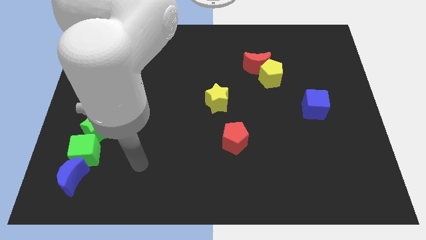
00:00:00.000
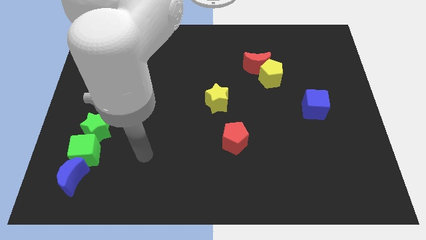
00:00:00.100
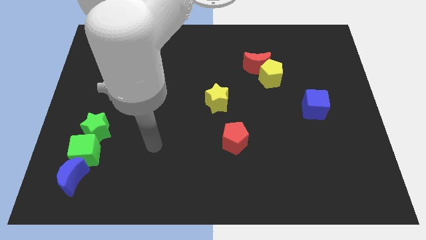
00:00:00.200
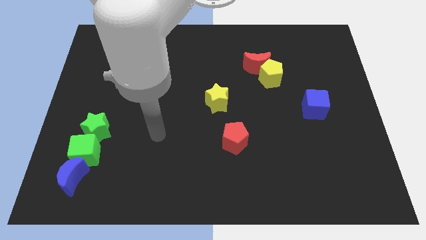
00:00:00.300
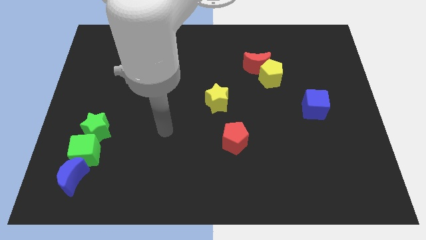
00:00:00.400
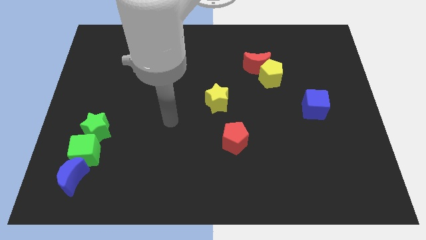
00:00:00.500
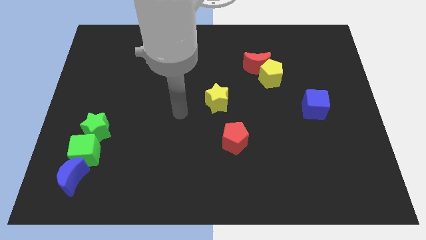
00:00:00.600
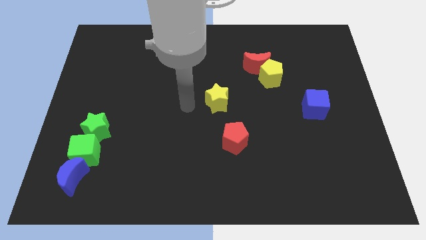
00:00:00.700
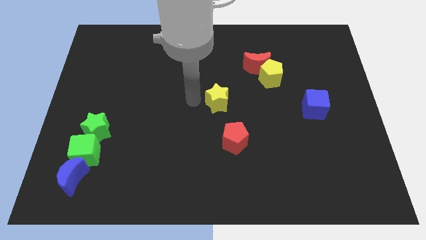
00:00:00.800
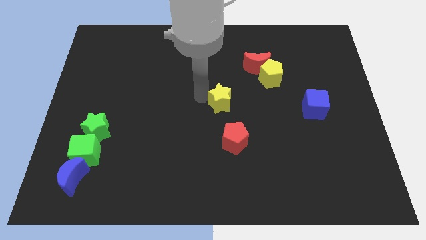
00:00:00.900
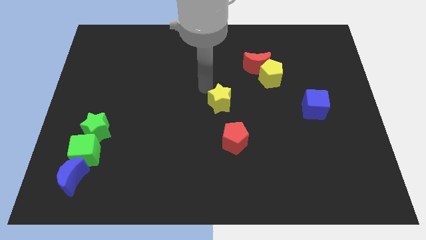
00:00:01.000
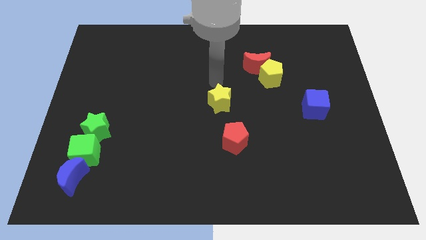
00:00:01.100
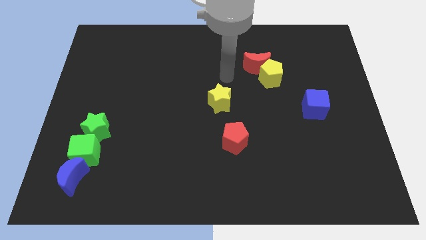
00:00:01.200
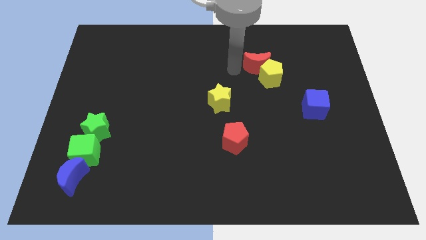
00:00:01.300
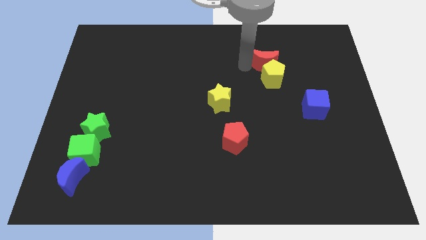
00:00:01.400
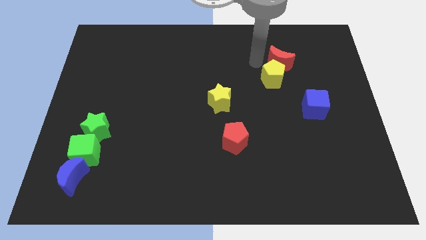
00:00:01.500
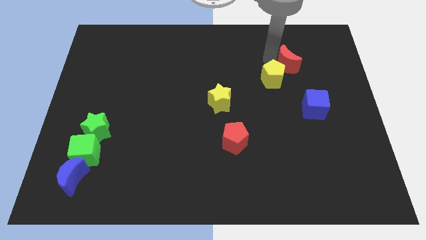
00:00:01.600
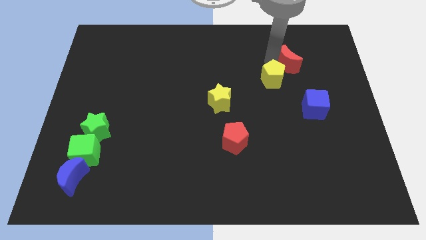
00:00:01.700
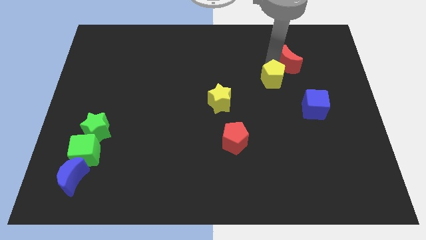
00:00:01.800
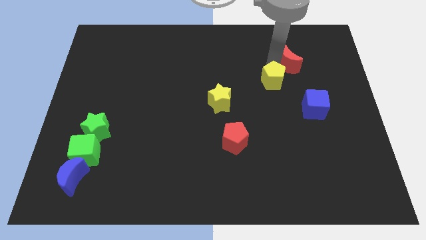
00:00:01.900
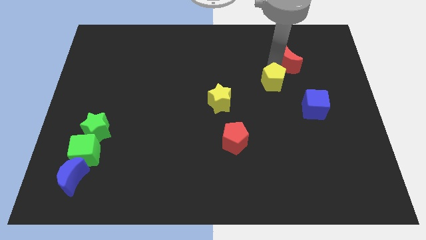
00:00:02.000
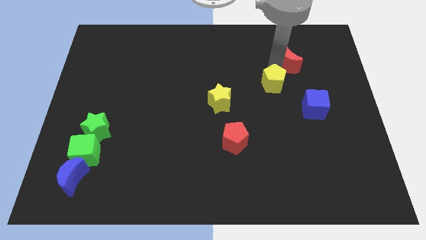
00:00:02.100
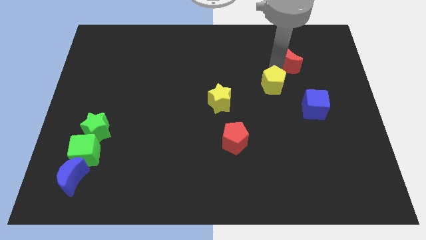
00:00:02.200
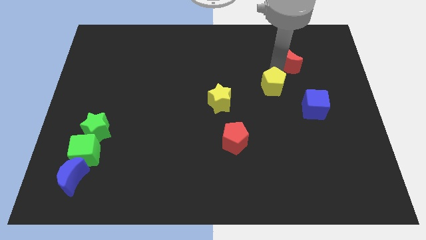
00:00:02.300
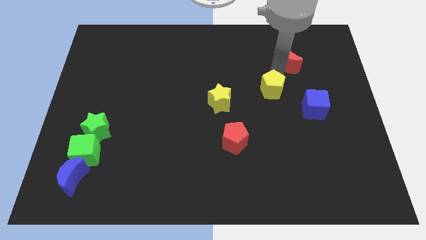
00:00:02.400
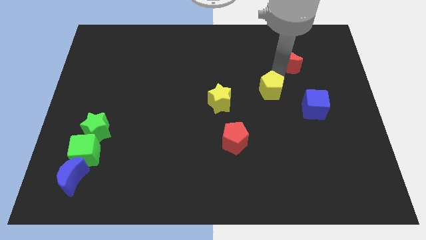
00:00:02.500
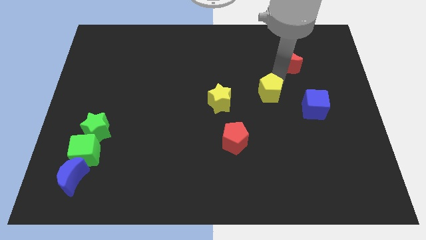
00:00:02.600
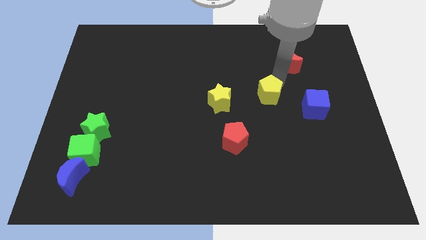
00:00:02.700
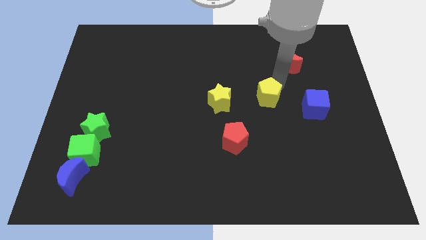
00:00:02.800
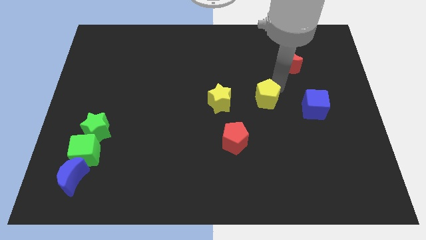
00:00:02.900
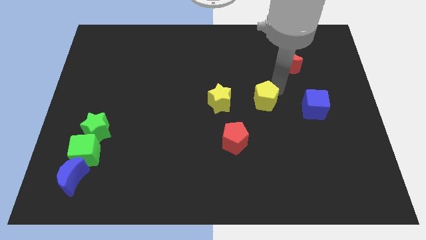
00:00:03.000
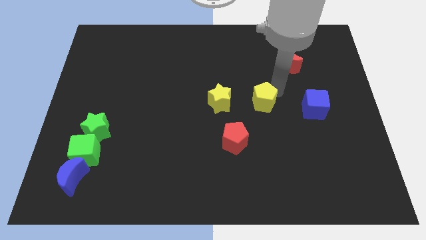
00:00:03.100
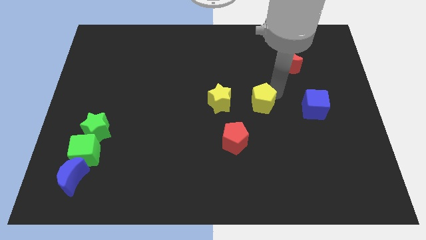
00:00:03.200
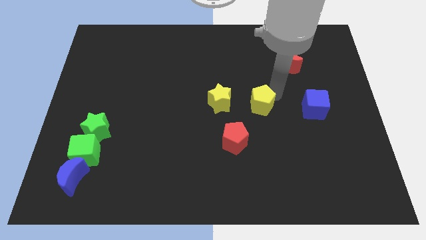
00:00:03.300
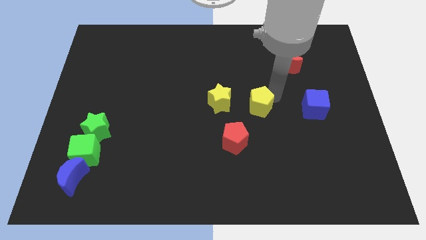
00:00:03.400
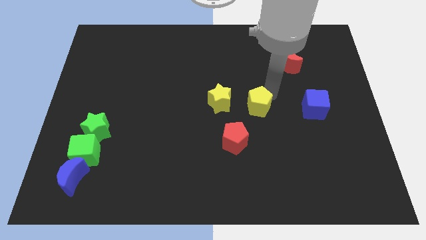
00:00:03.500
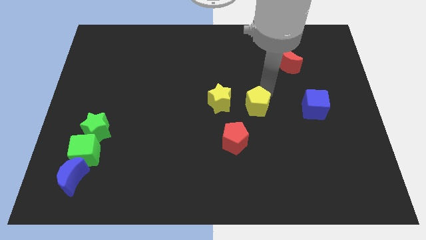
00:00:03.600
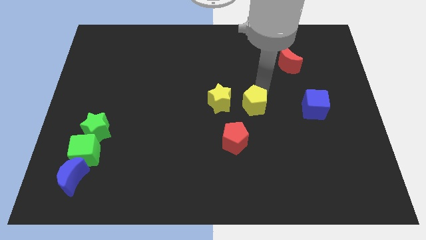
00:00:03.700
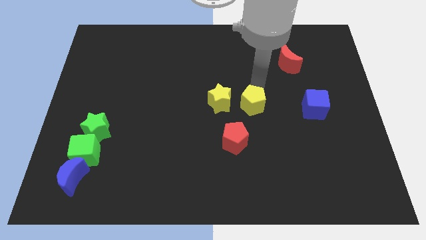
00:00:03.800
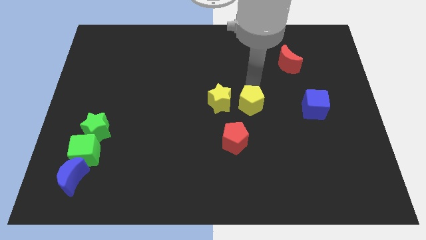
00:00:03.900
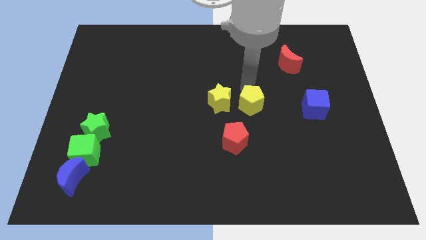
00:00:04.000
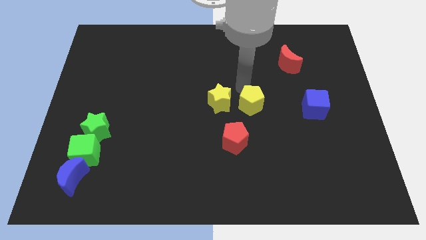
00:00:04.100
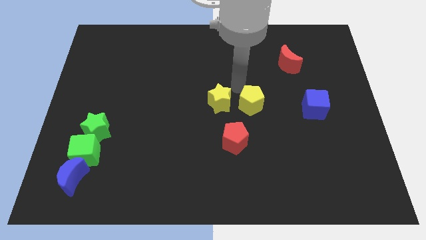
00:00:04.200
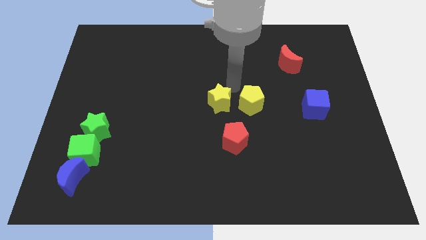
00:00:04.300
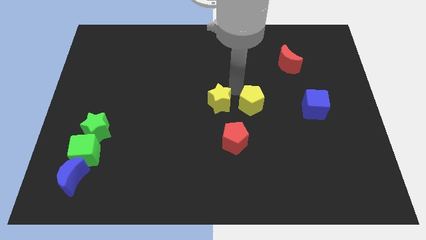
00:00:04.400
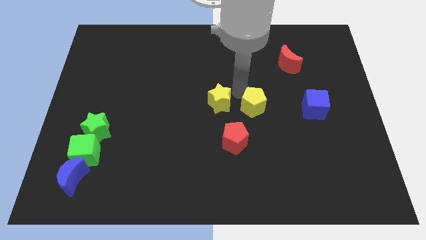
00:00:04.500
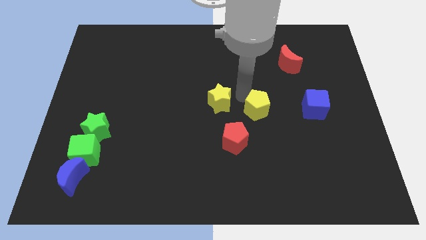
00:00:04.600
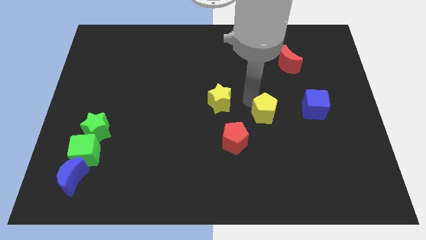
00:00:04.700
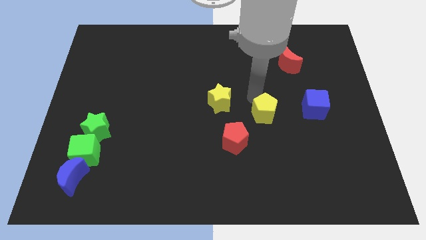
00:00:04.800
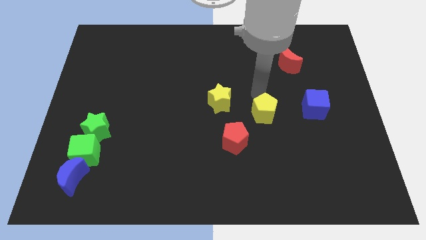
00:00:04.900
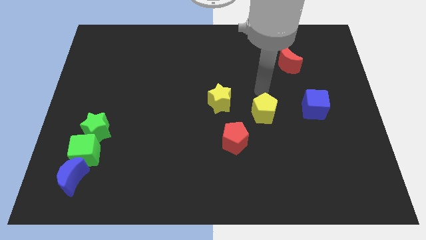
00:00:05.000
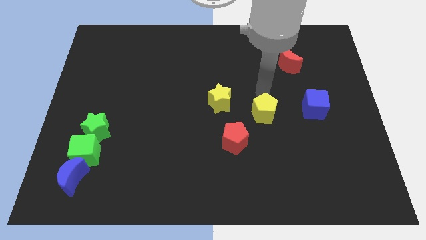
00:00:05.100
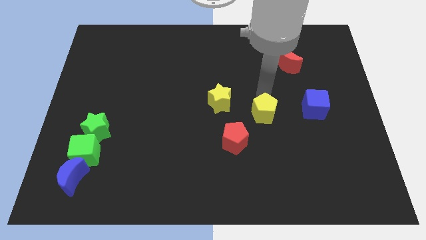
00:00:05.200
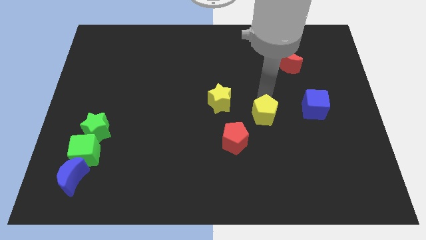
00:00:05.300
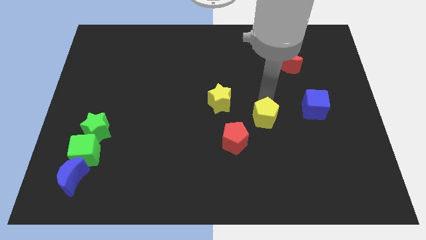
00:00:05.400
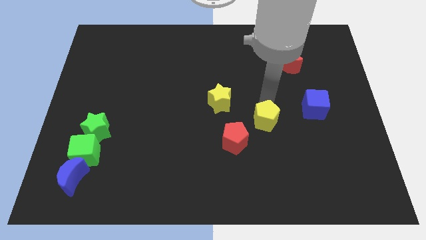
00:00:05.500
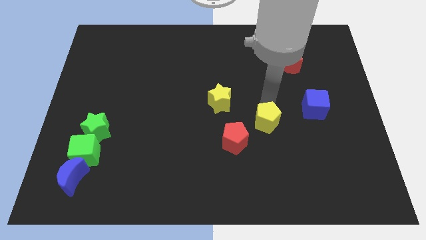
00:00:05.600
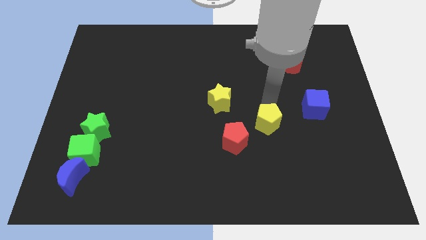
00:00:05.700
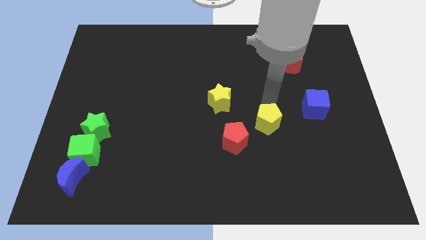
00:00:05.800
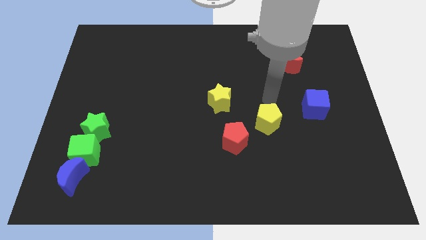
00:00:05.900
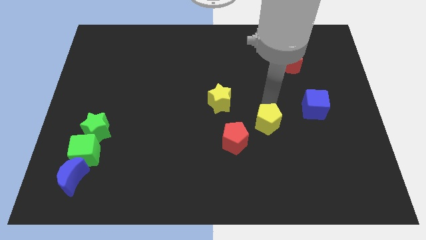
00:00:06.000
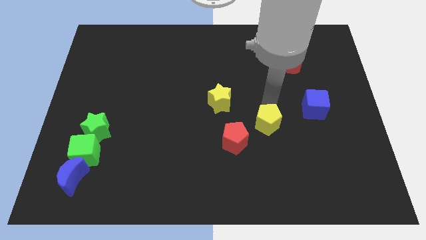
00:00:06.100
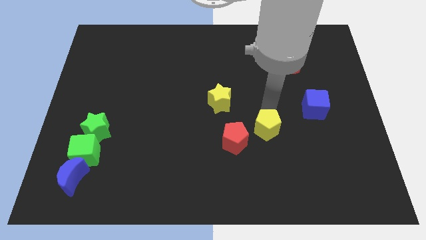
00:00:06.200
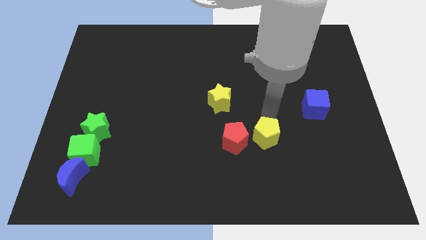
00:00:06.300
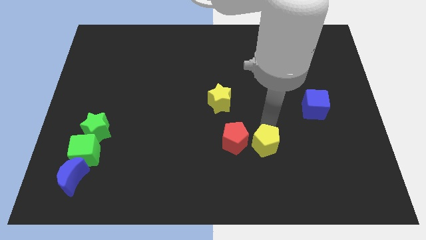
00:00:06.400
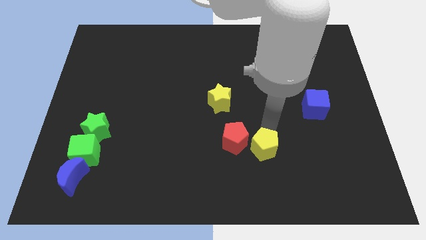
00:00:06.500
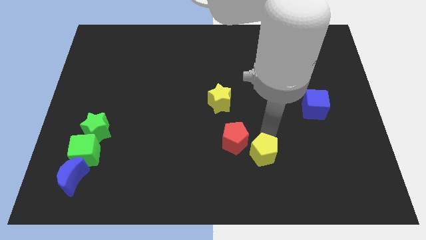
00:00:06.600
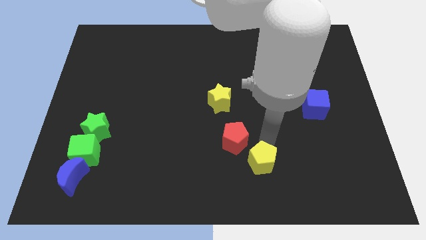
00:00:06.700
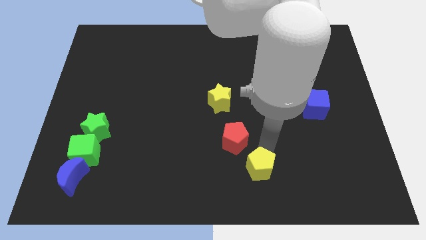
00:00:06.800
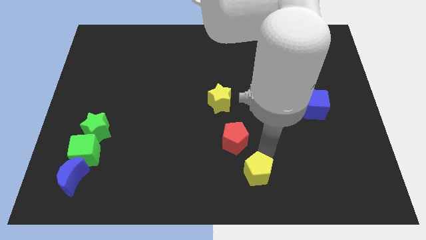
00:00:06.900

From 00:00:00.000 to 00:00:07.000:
put the yellow pentagon to the bottom side
